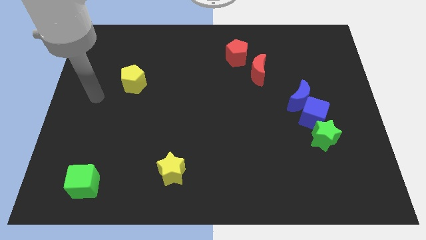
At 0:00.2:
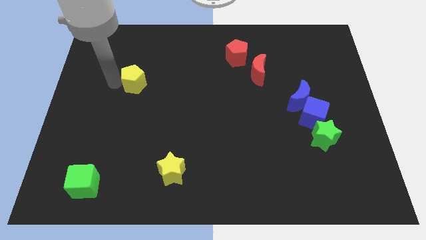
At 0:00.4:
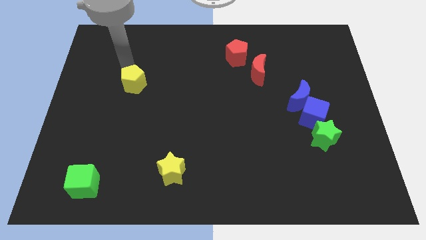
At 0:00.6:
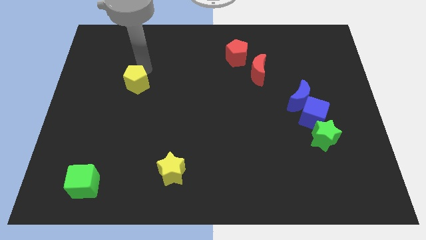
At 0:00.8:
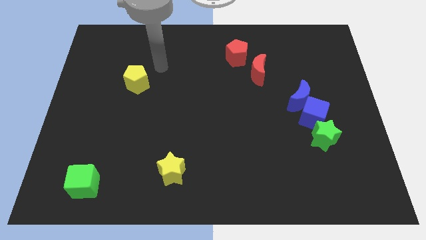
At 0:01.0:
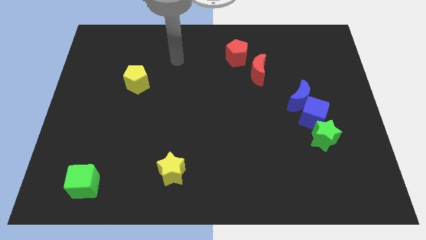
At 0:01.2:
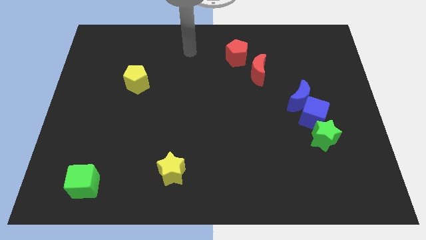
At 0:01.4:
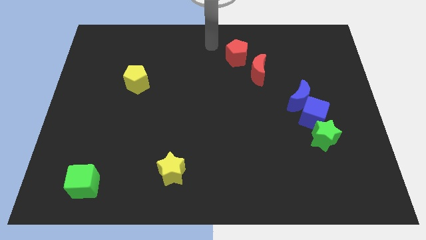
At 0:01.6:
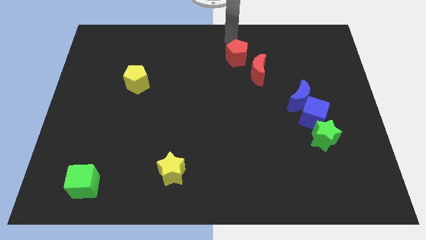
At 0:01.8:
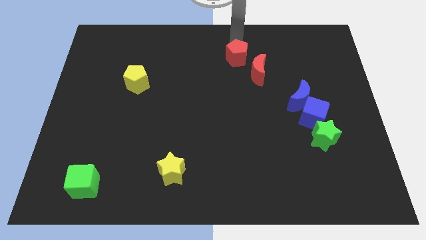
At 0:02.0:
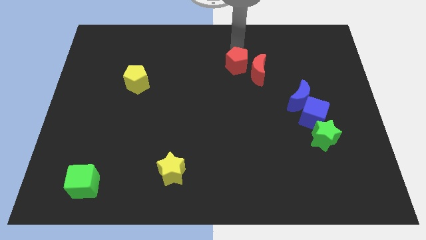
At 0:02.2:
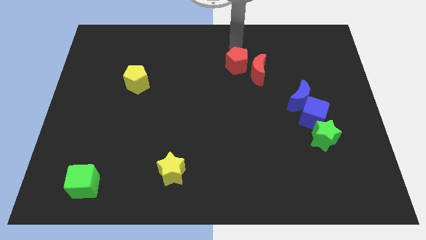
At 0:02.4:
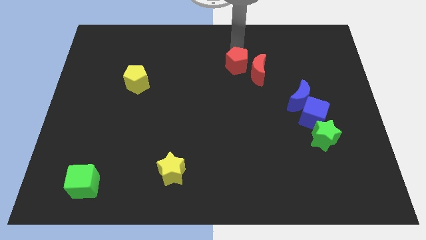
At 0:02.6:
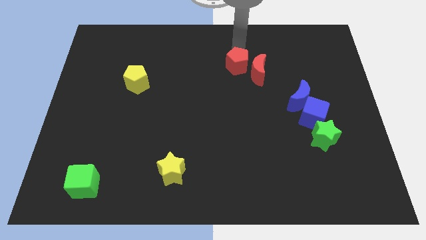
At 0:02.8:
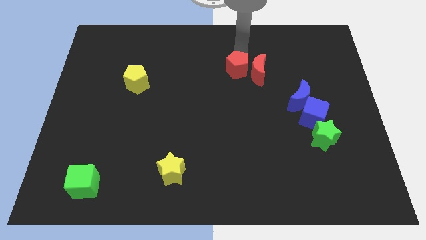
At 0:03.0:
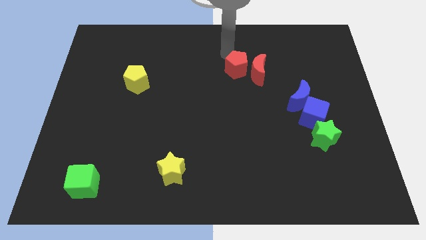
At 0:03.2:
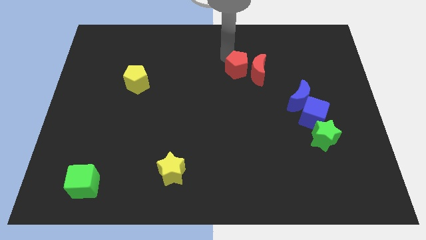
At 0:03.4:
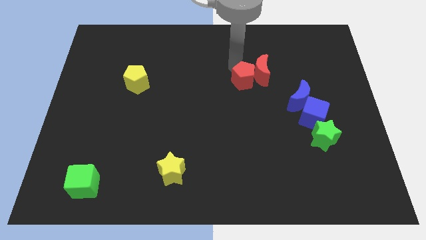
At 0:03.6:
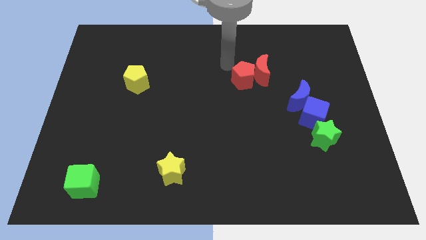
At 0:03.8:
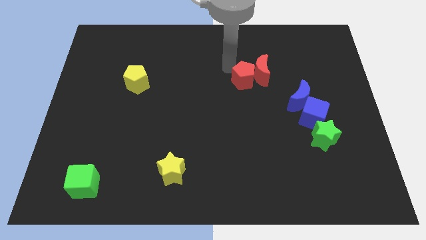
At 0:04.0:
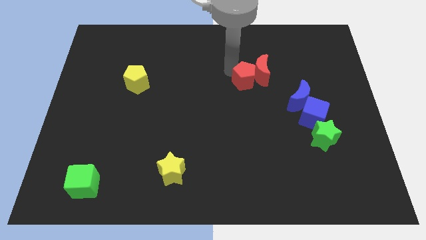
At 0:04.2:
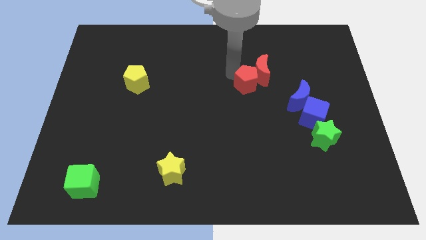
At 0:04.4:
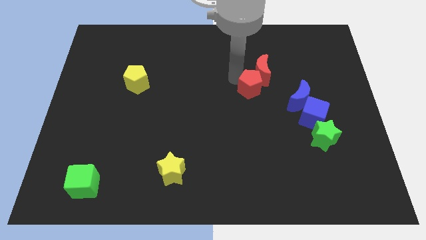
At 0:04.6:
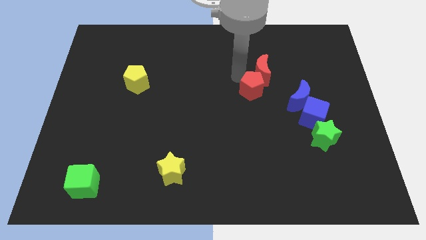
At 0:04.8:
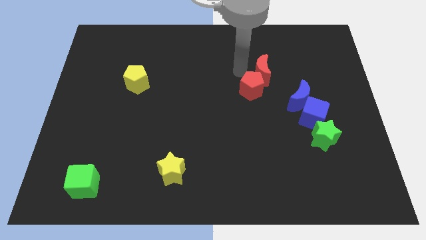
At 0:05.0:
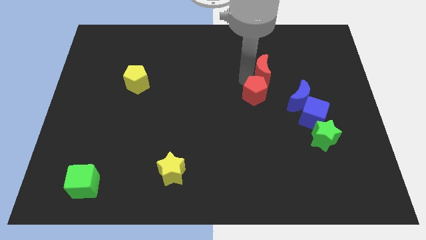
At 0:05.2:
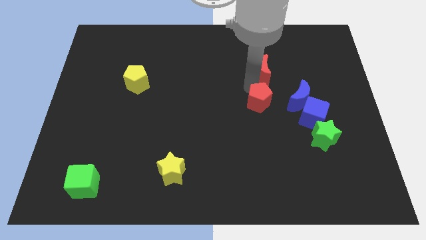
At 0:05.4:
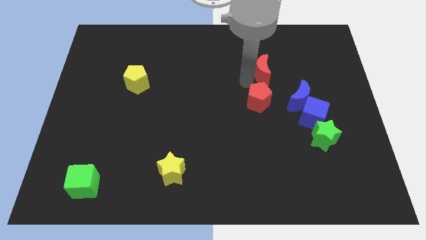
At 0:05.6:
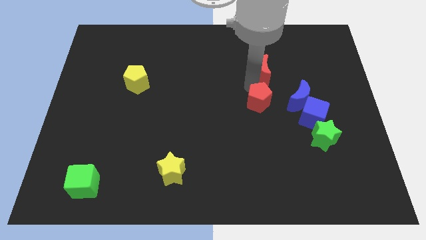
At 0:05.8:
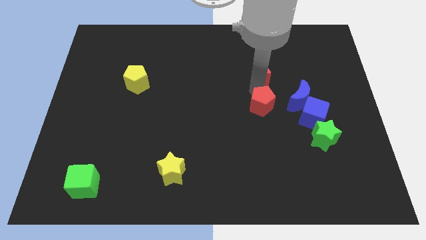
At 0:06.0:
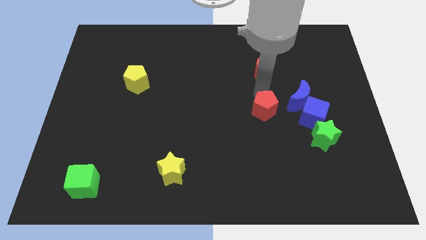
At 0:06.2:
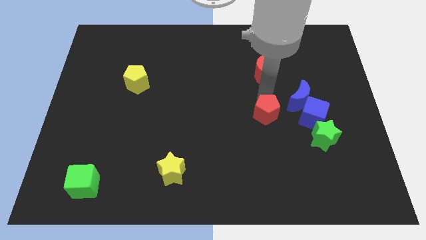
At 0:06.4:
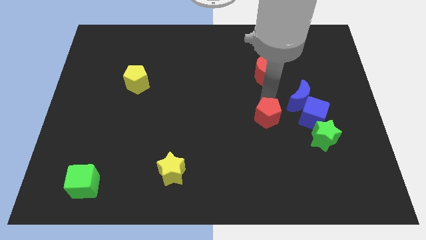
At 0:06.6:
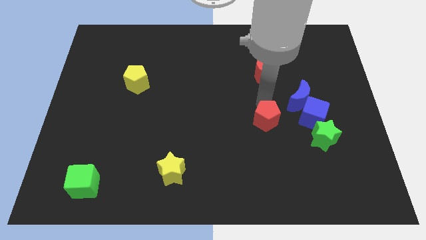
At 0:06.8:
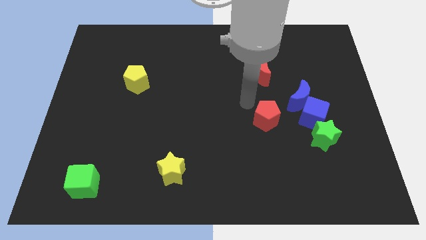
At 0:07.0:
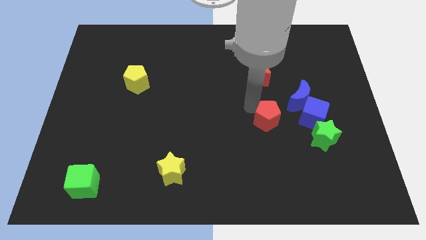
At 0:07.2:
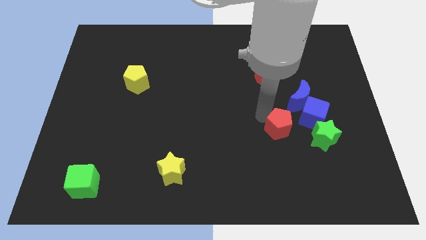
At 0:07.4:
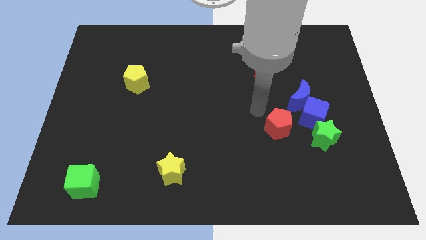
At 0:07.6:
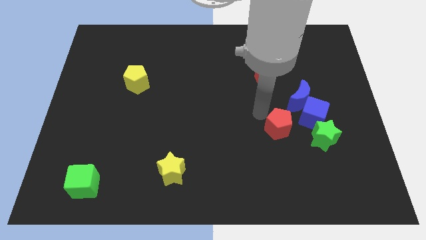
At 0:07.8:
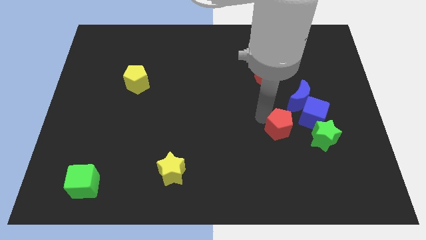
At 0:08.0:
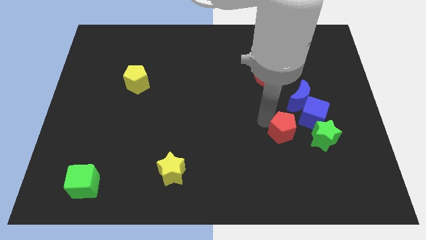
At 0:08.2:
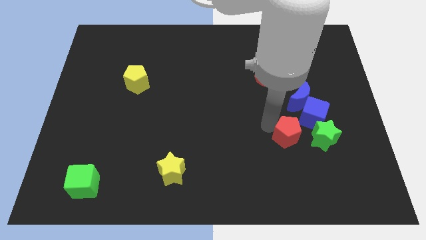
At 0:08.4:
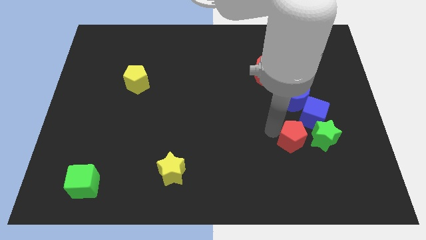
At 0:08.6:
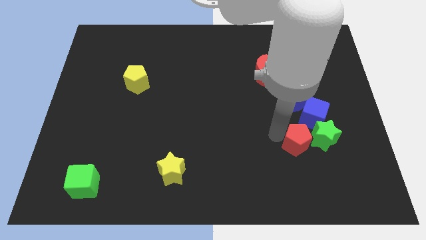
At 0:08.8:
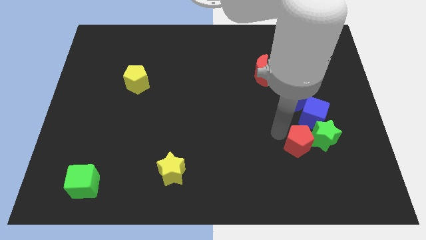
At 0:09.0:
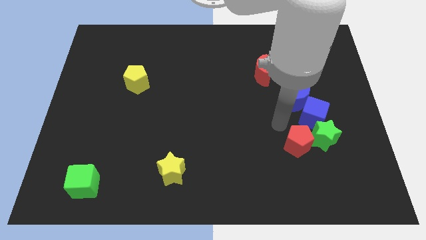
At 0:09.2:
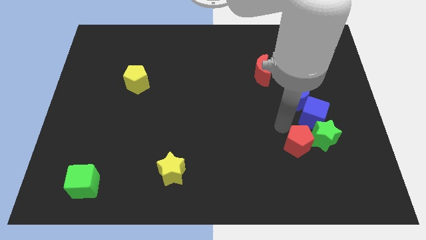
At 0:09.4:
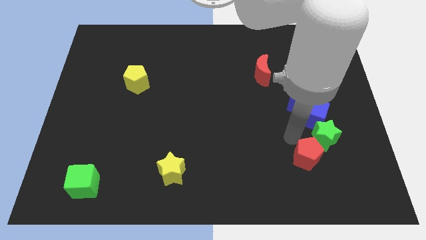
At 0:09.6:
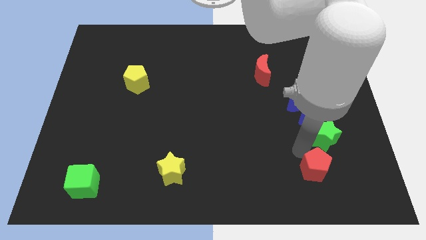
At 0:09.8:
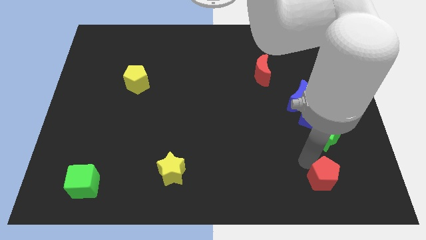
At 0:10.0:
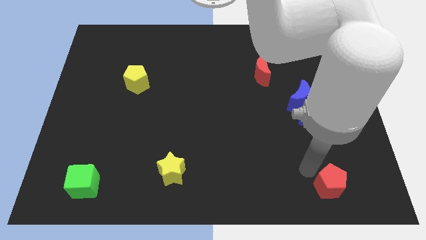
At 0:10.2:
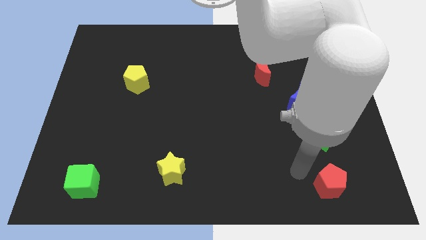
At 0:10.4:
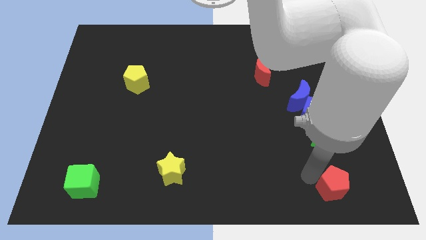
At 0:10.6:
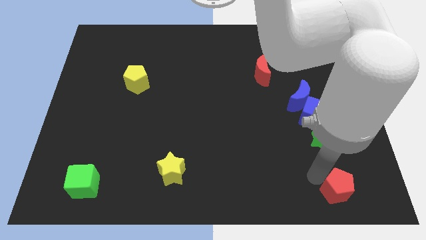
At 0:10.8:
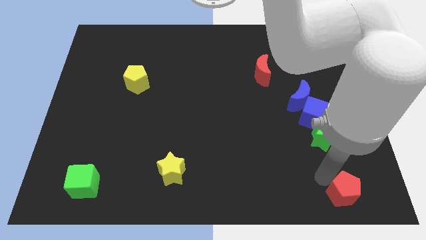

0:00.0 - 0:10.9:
push the red pentagon to the bottom right of the board

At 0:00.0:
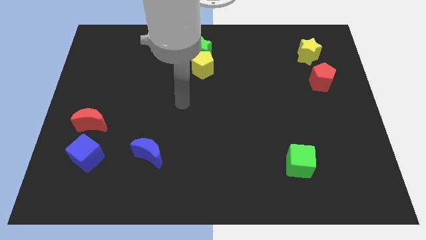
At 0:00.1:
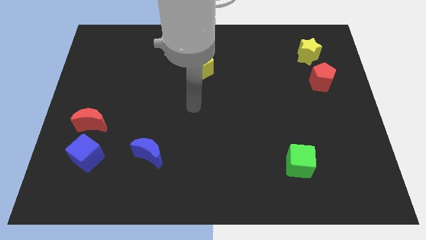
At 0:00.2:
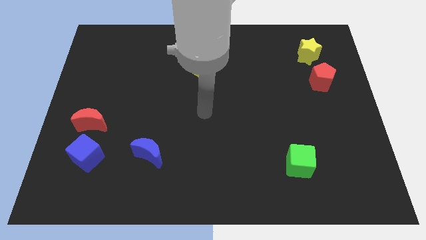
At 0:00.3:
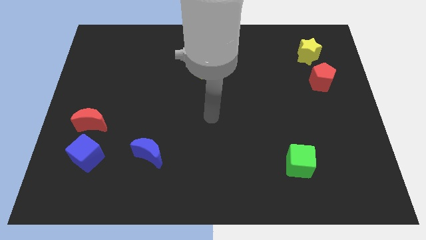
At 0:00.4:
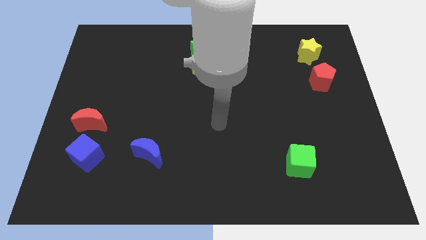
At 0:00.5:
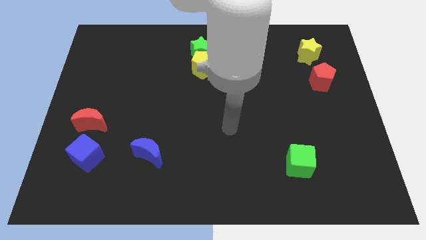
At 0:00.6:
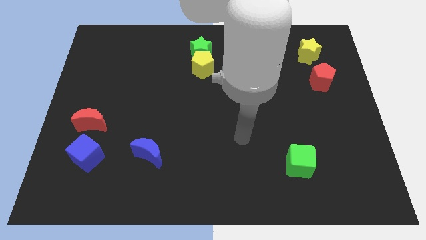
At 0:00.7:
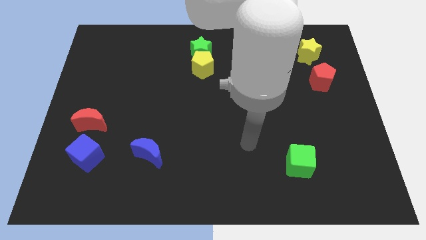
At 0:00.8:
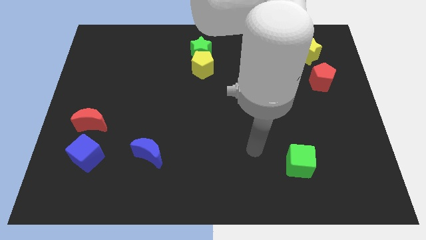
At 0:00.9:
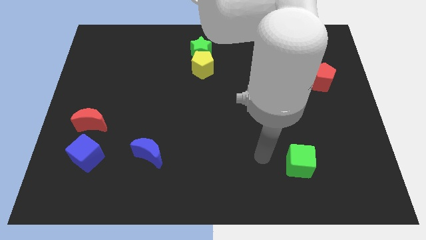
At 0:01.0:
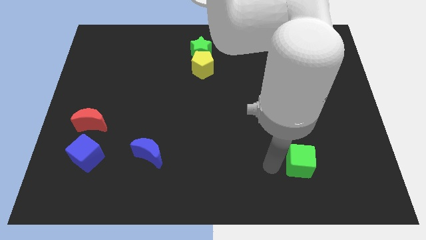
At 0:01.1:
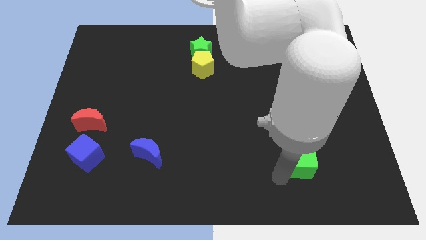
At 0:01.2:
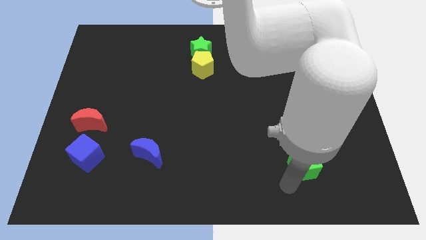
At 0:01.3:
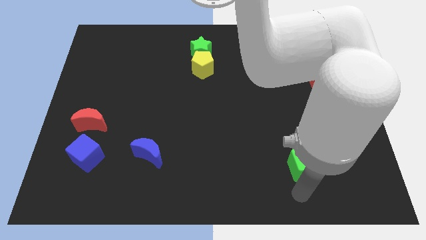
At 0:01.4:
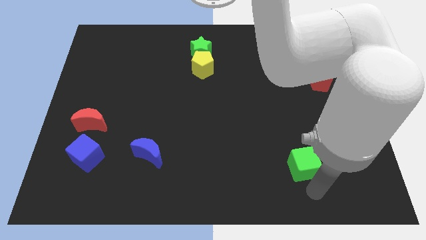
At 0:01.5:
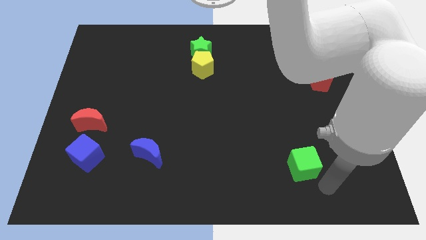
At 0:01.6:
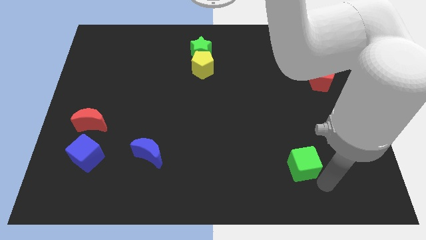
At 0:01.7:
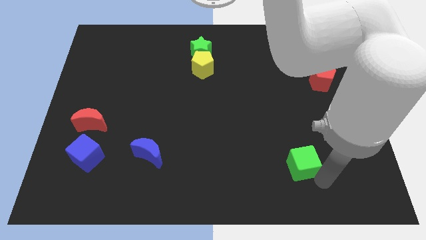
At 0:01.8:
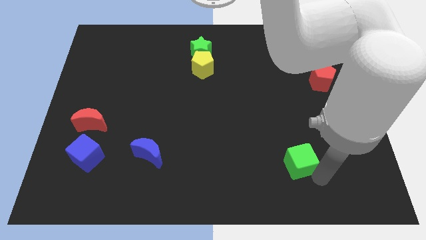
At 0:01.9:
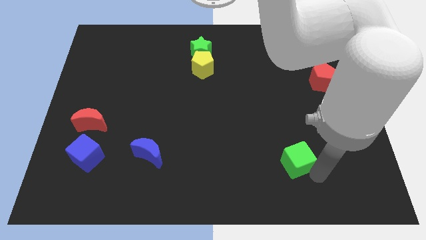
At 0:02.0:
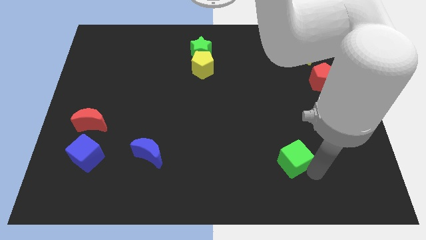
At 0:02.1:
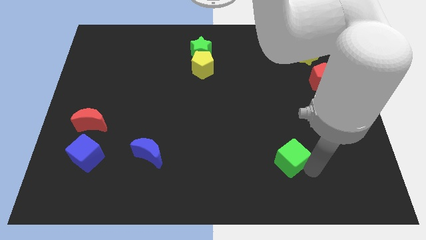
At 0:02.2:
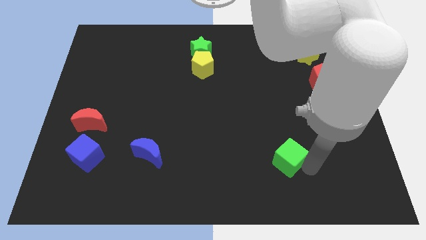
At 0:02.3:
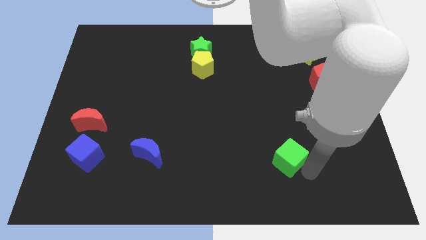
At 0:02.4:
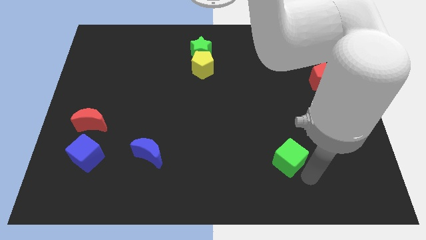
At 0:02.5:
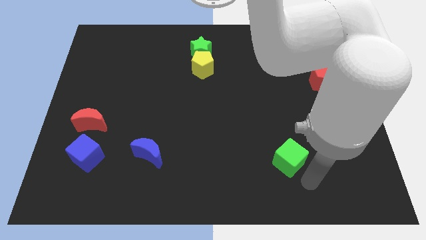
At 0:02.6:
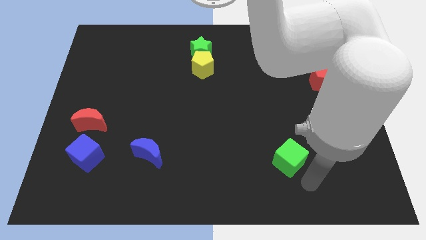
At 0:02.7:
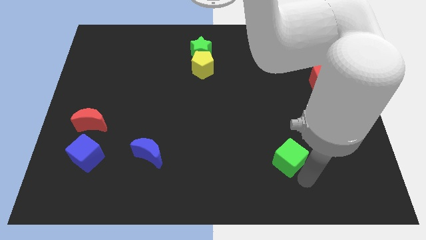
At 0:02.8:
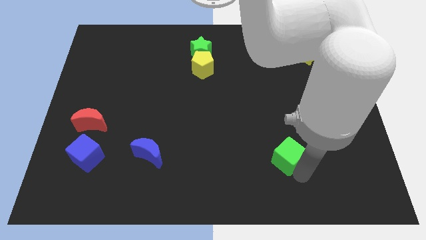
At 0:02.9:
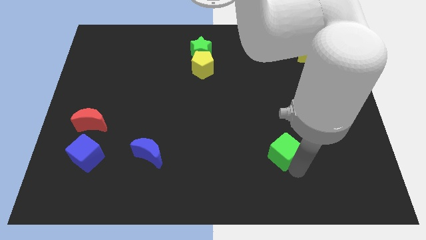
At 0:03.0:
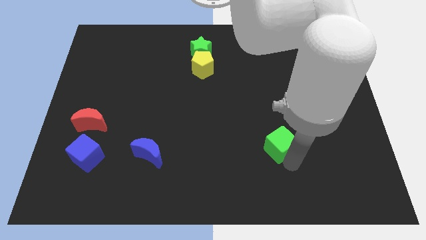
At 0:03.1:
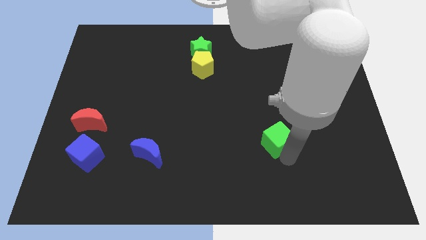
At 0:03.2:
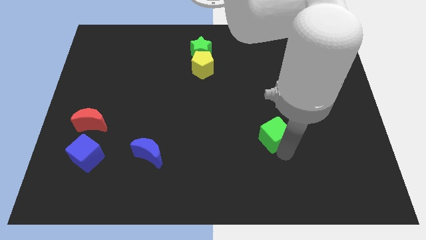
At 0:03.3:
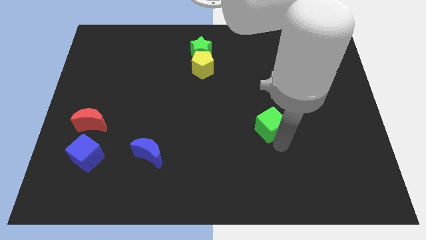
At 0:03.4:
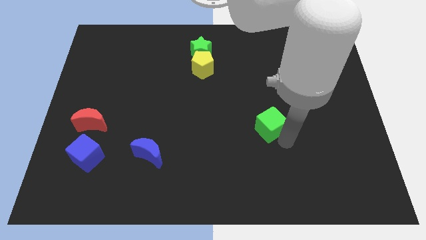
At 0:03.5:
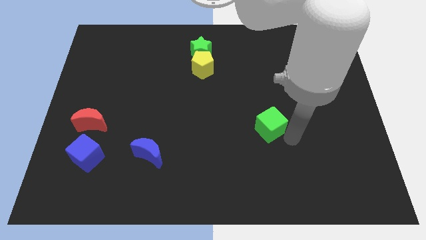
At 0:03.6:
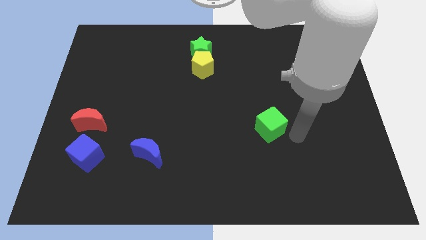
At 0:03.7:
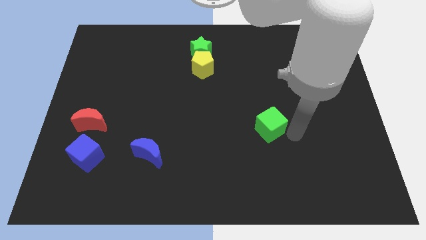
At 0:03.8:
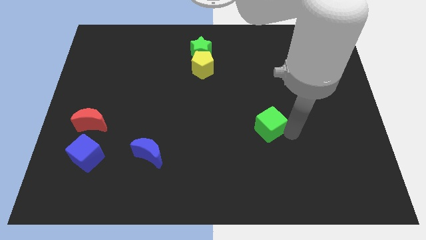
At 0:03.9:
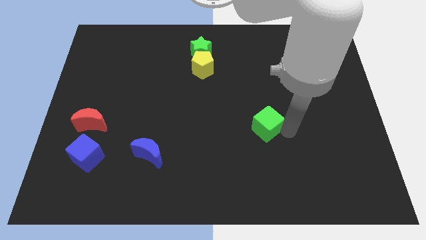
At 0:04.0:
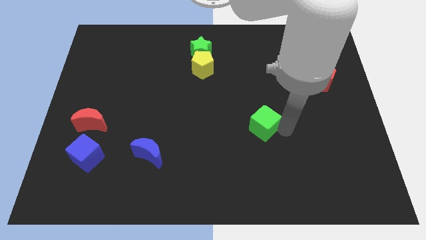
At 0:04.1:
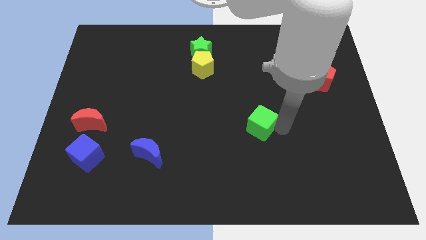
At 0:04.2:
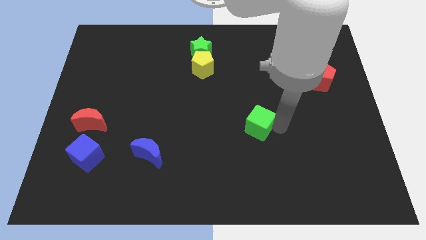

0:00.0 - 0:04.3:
push the green cube to the middle of the board
